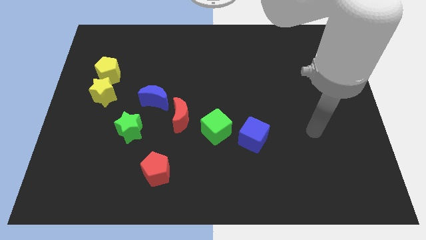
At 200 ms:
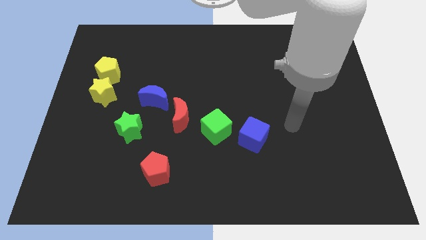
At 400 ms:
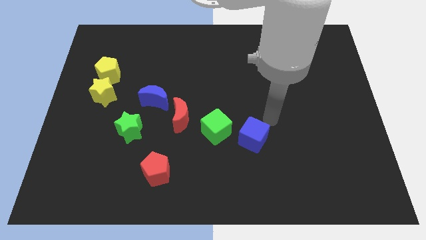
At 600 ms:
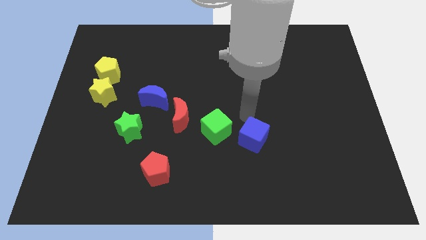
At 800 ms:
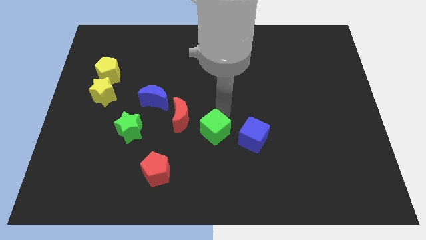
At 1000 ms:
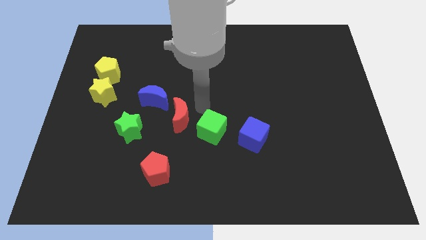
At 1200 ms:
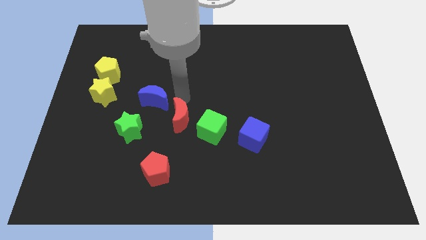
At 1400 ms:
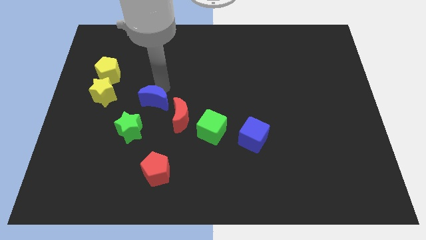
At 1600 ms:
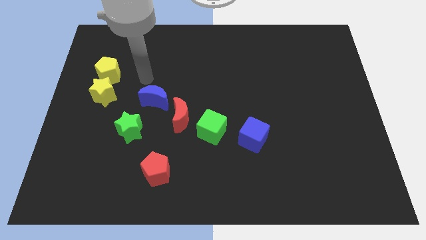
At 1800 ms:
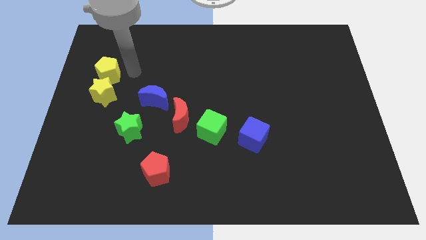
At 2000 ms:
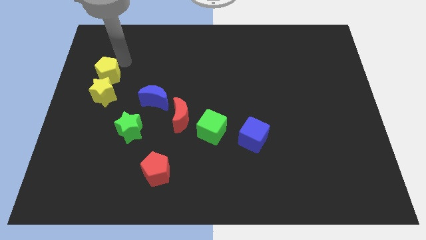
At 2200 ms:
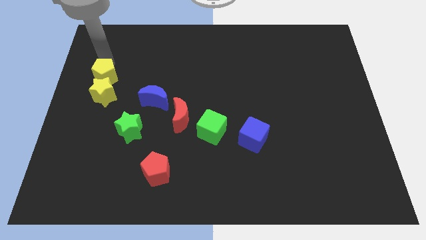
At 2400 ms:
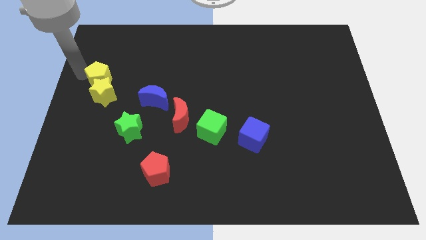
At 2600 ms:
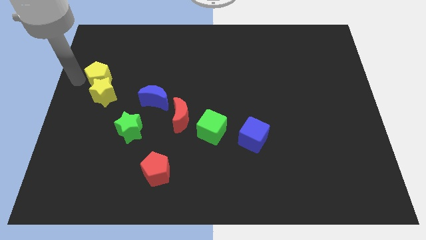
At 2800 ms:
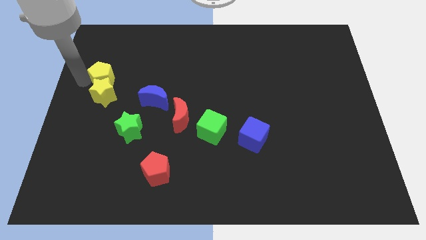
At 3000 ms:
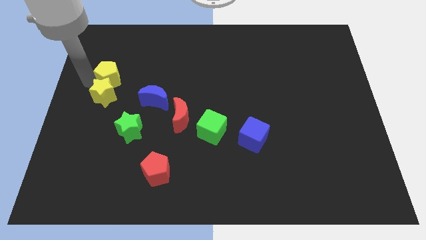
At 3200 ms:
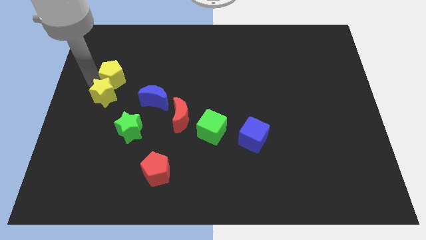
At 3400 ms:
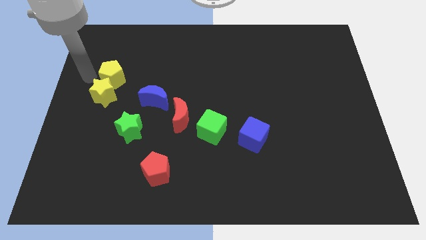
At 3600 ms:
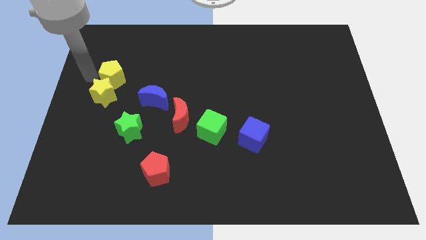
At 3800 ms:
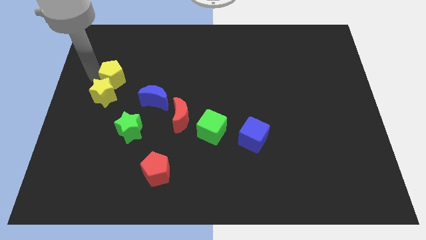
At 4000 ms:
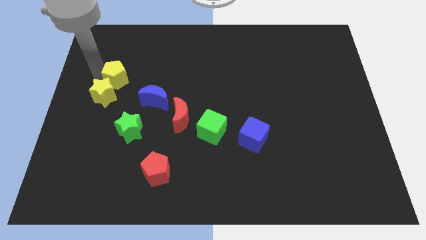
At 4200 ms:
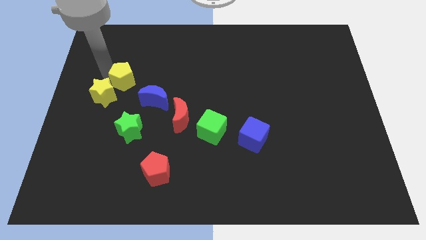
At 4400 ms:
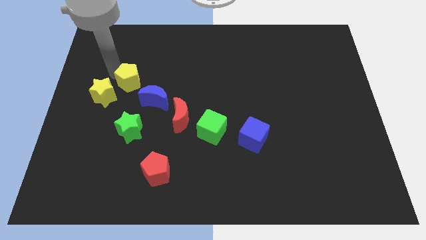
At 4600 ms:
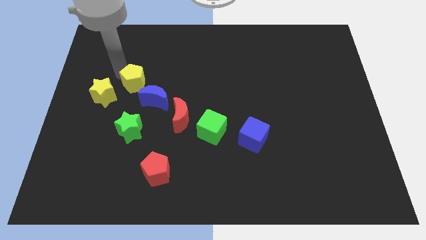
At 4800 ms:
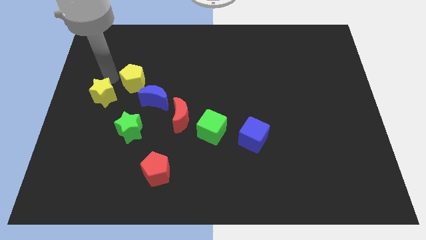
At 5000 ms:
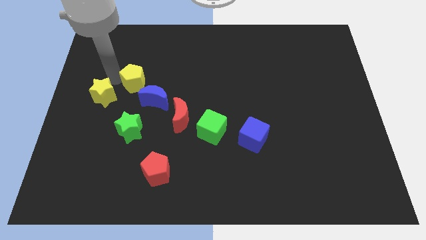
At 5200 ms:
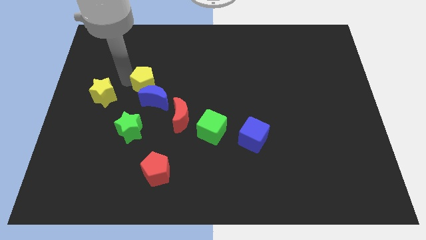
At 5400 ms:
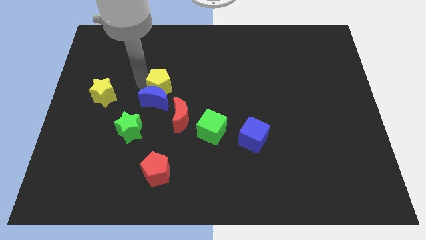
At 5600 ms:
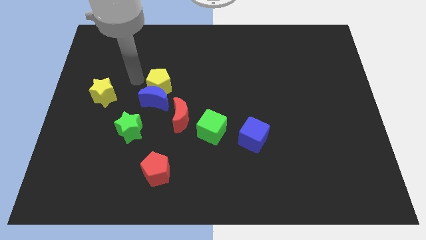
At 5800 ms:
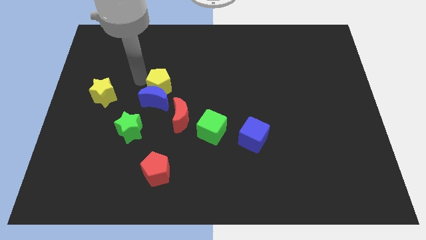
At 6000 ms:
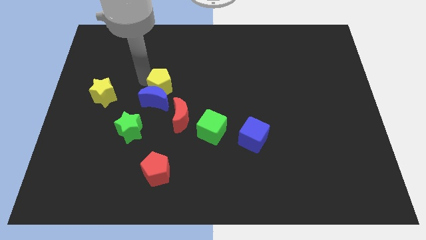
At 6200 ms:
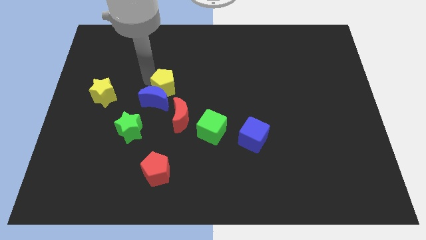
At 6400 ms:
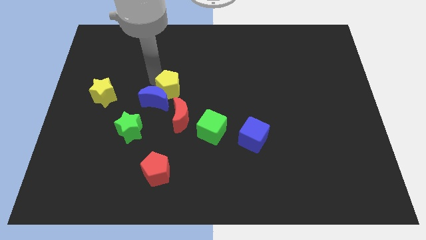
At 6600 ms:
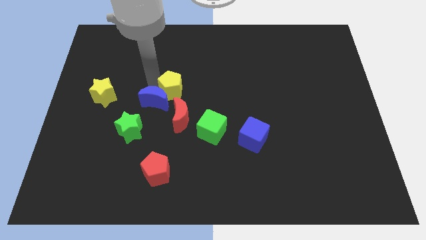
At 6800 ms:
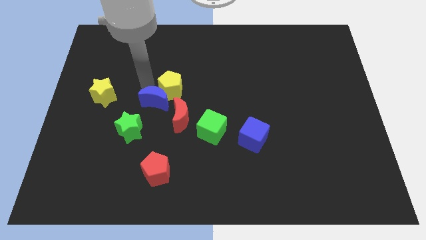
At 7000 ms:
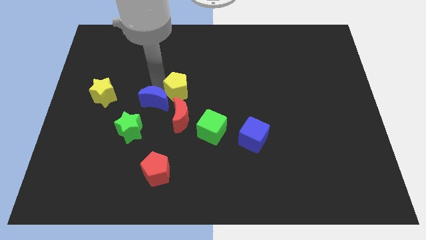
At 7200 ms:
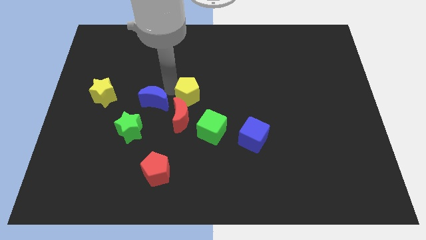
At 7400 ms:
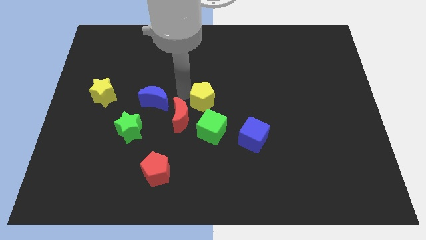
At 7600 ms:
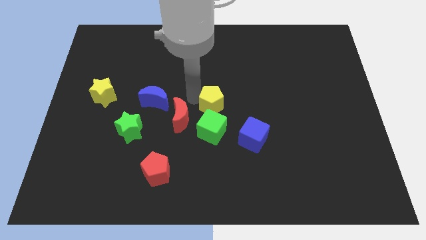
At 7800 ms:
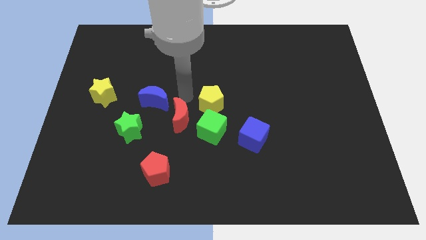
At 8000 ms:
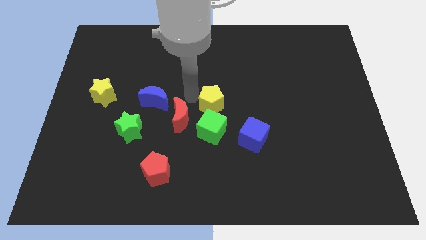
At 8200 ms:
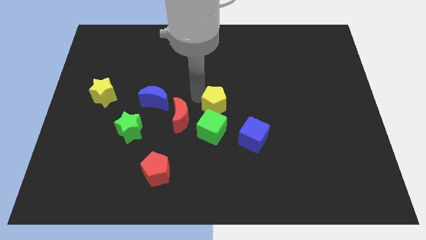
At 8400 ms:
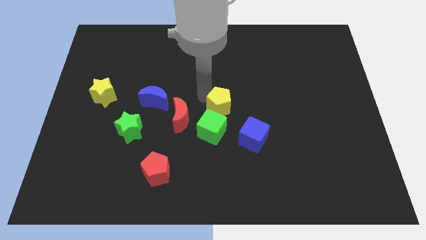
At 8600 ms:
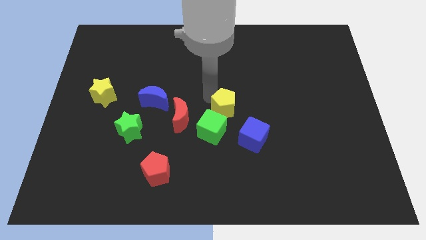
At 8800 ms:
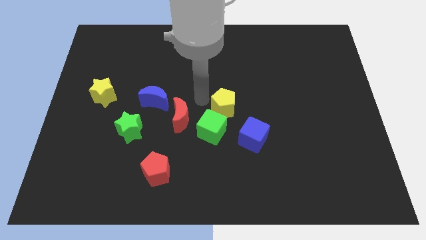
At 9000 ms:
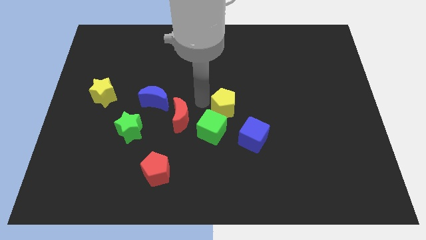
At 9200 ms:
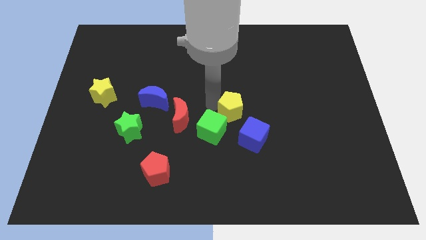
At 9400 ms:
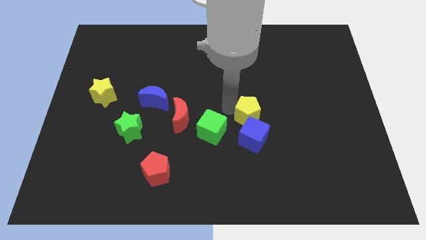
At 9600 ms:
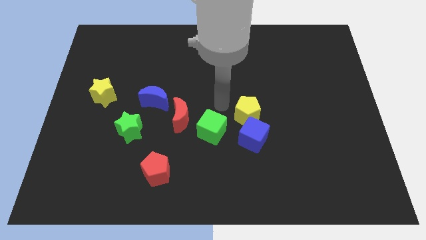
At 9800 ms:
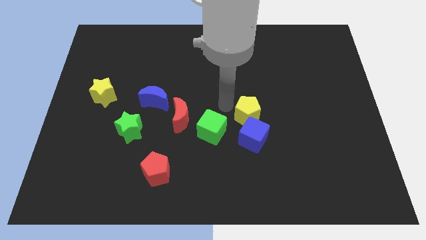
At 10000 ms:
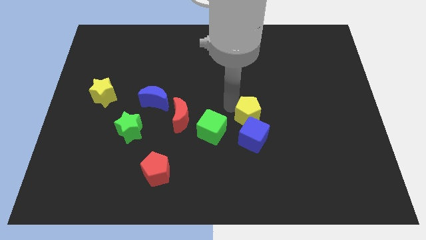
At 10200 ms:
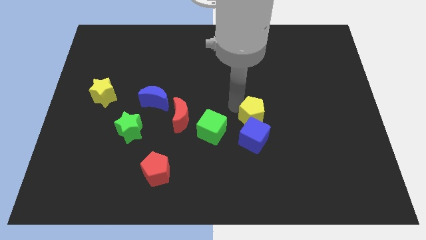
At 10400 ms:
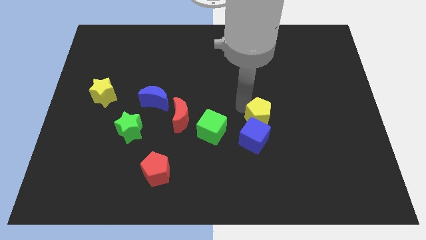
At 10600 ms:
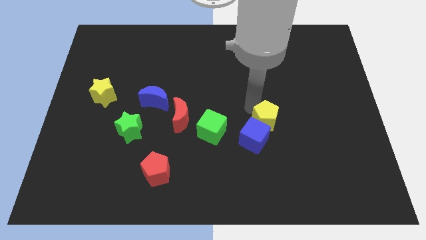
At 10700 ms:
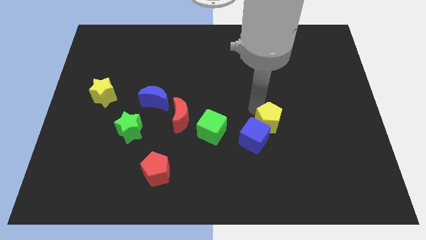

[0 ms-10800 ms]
move the yellow pentagon right of the blue cube

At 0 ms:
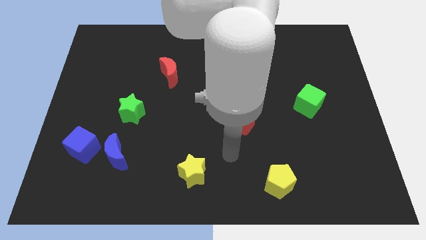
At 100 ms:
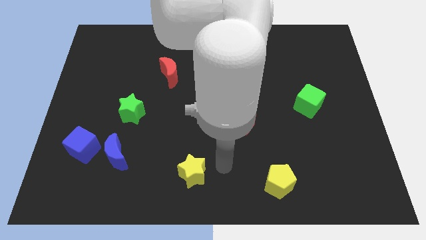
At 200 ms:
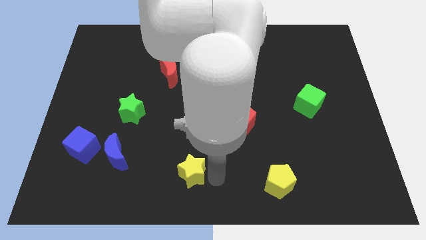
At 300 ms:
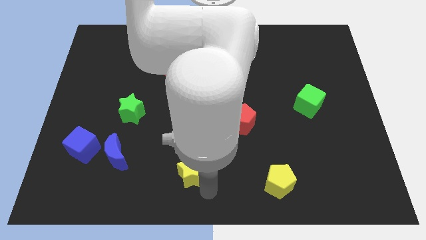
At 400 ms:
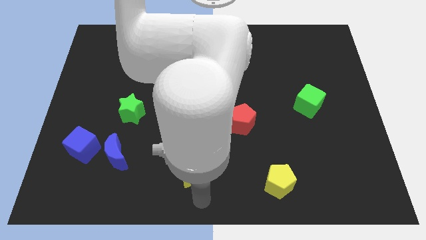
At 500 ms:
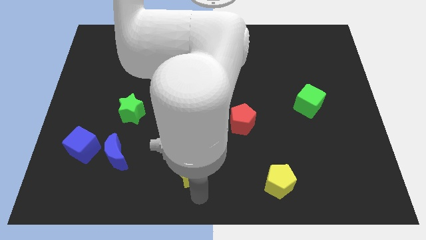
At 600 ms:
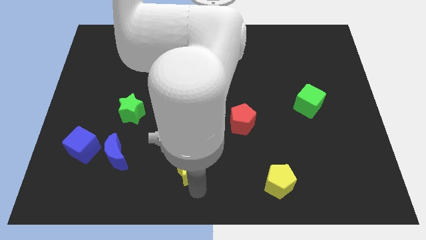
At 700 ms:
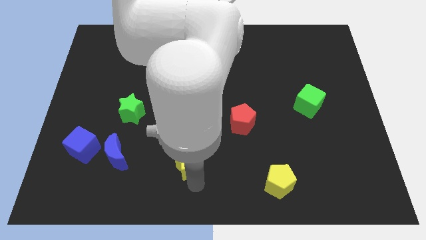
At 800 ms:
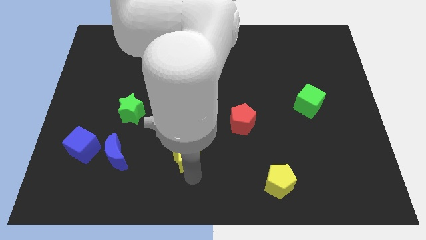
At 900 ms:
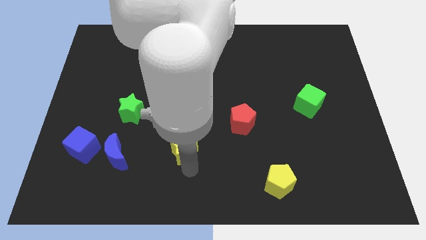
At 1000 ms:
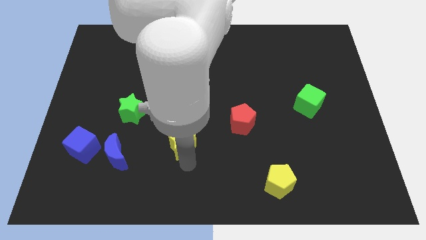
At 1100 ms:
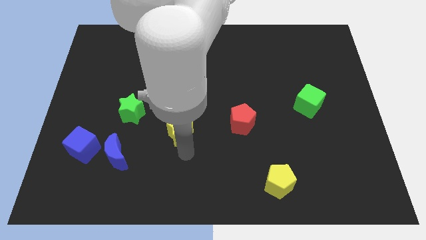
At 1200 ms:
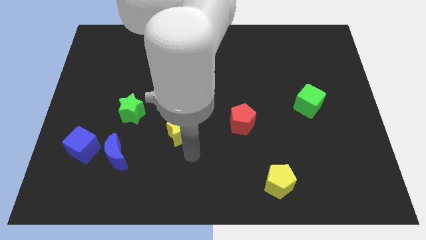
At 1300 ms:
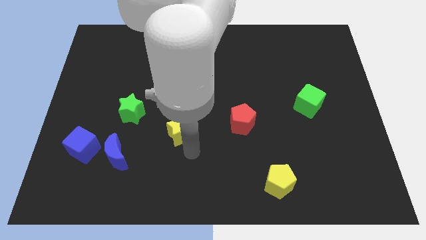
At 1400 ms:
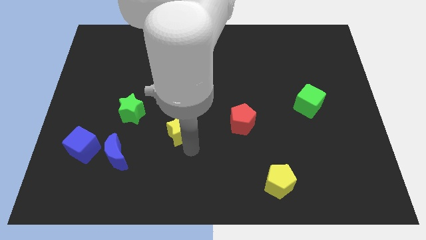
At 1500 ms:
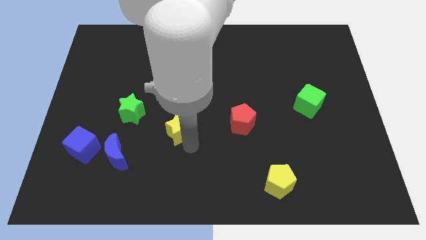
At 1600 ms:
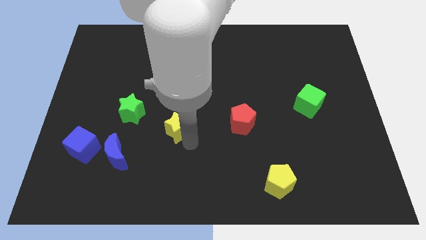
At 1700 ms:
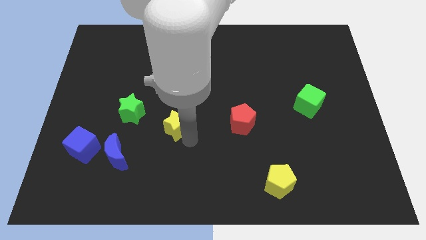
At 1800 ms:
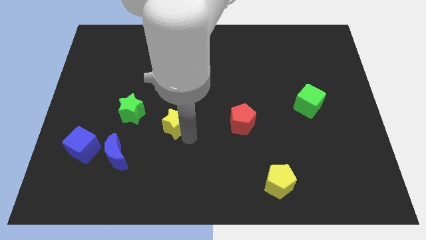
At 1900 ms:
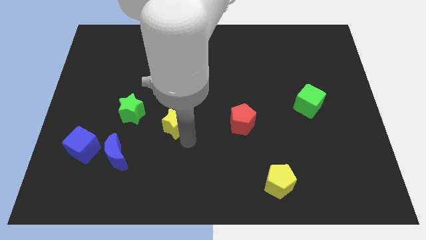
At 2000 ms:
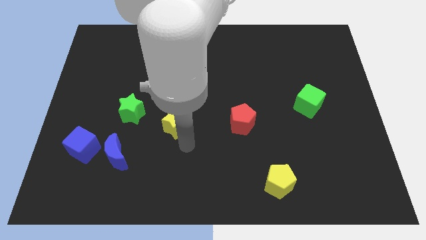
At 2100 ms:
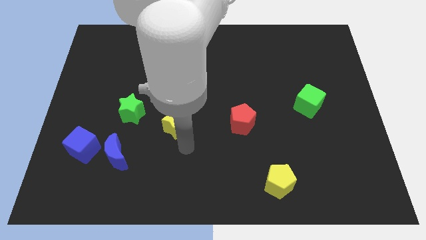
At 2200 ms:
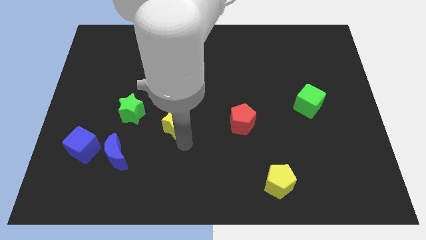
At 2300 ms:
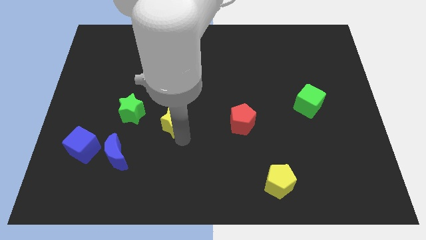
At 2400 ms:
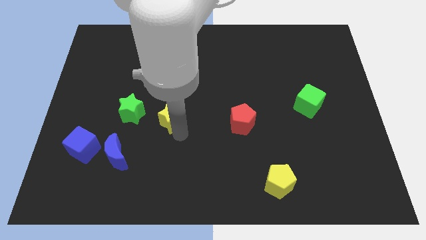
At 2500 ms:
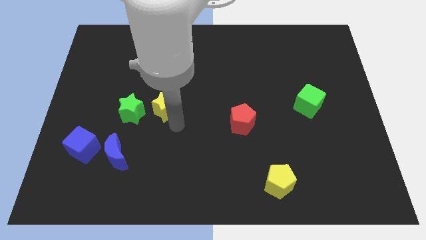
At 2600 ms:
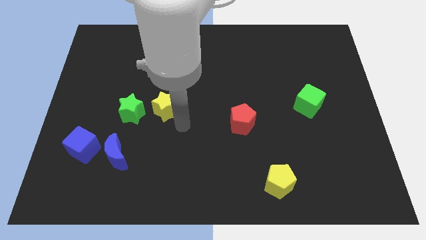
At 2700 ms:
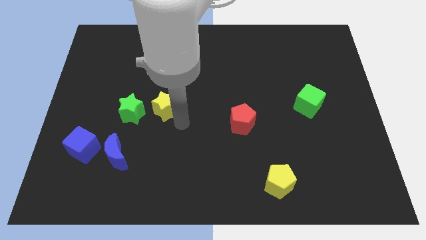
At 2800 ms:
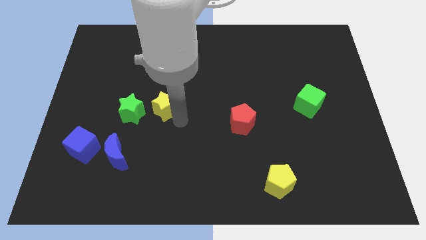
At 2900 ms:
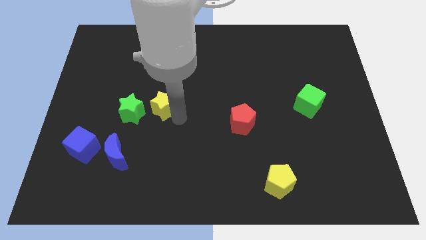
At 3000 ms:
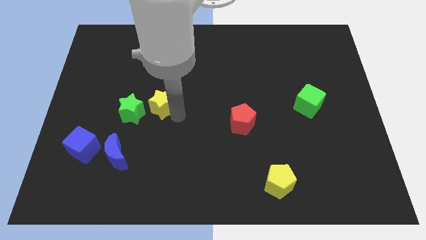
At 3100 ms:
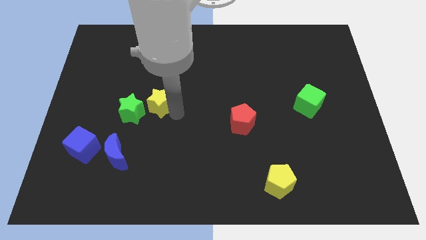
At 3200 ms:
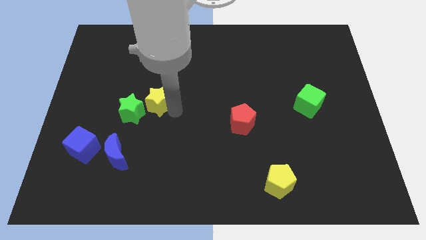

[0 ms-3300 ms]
push the yellow star diagonally down and to the left of the red moon
